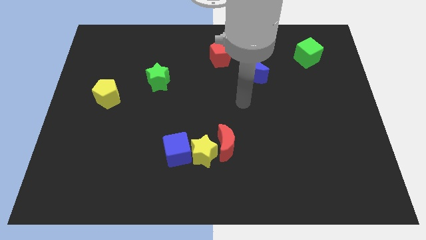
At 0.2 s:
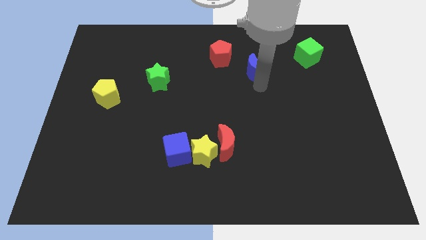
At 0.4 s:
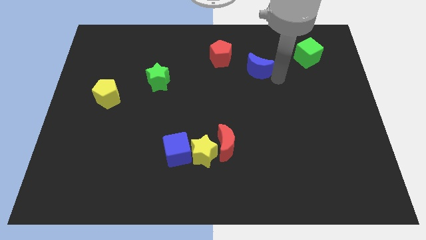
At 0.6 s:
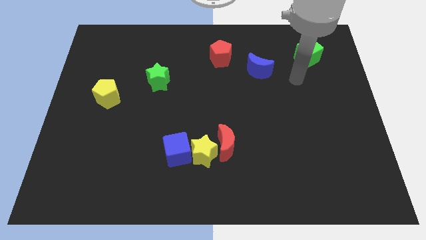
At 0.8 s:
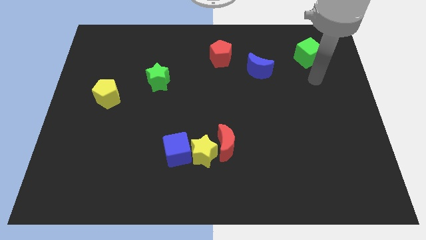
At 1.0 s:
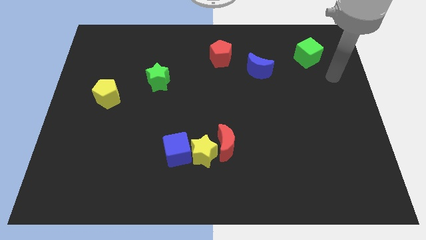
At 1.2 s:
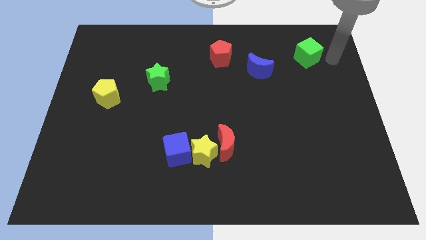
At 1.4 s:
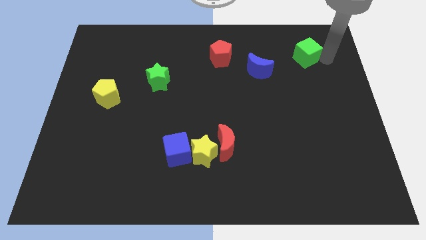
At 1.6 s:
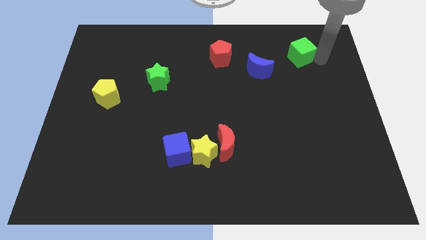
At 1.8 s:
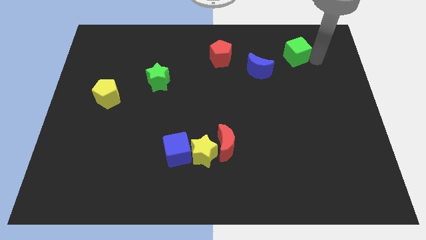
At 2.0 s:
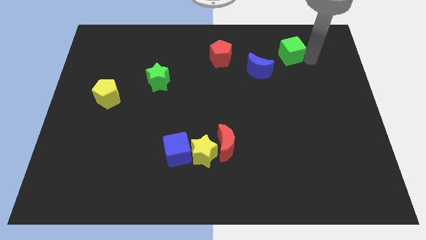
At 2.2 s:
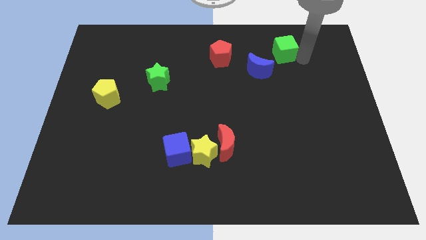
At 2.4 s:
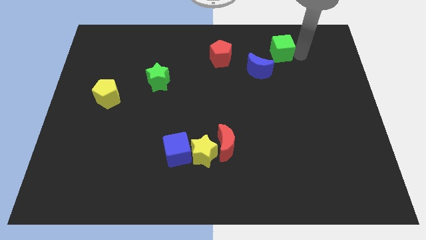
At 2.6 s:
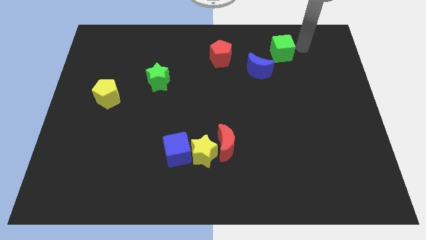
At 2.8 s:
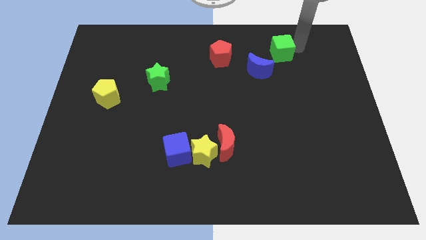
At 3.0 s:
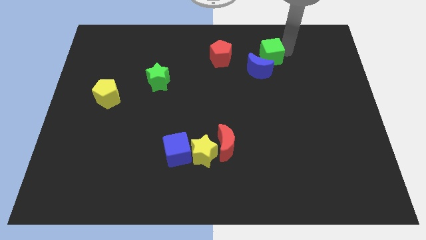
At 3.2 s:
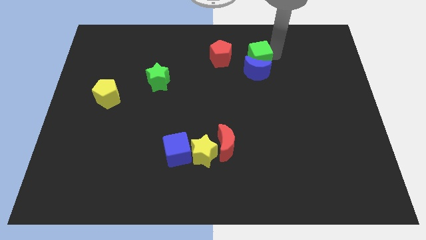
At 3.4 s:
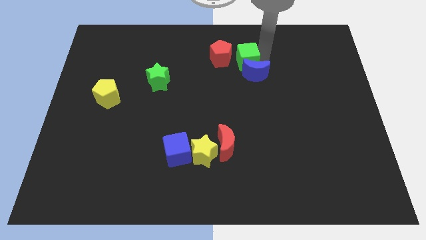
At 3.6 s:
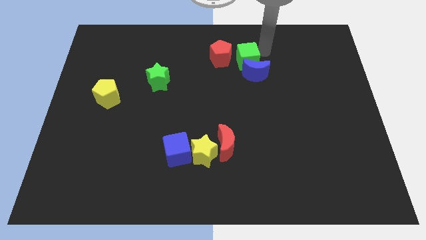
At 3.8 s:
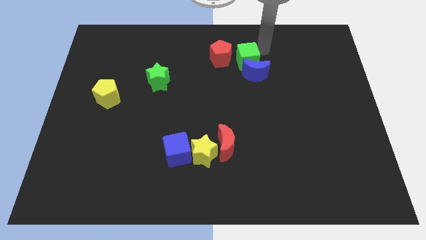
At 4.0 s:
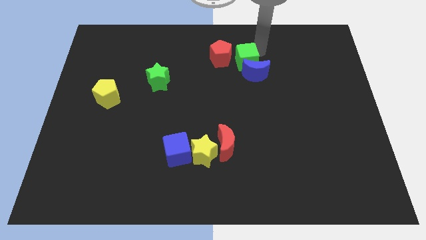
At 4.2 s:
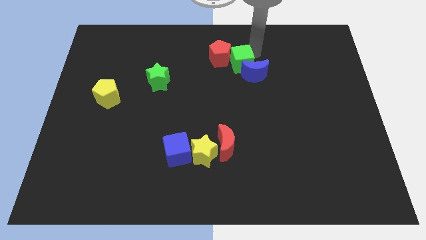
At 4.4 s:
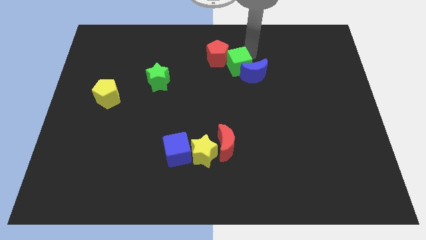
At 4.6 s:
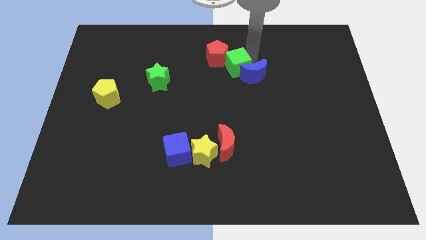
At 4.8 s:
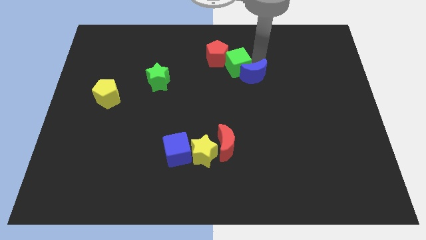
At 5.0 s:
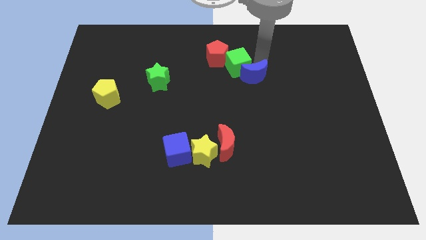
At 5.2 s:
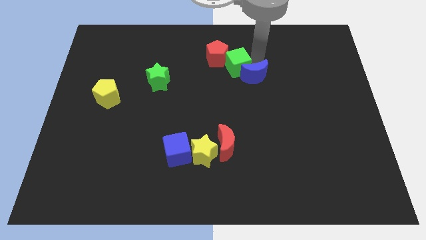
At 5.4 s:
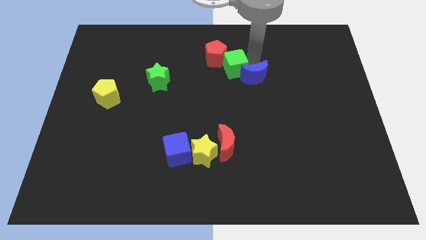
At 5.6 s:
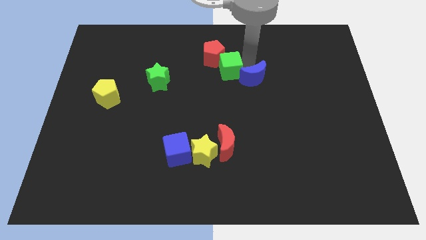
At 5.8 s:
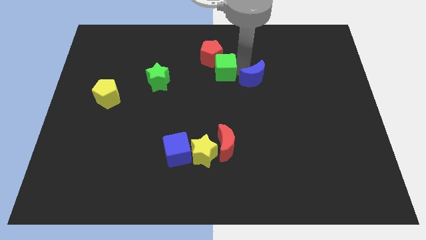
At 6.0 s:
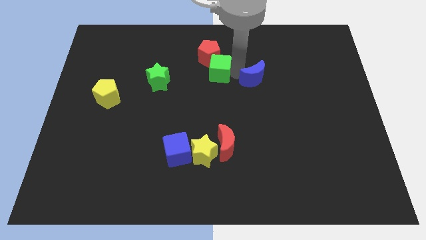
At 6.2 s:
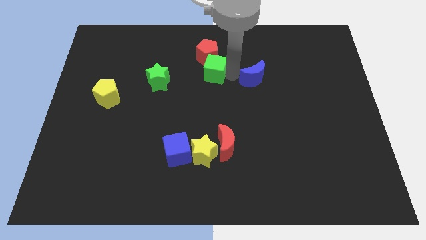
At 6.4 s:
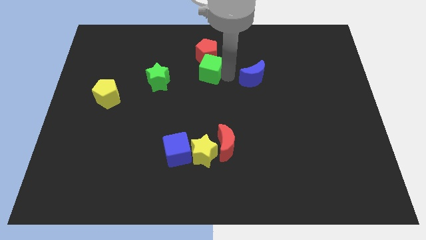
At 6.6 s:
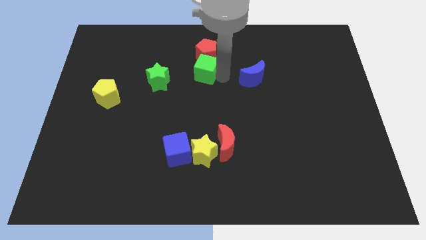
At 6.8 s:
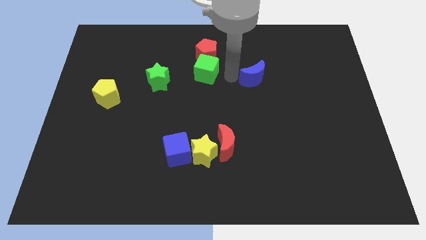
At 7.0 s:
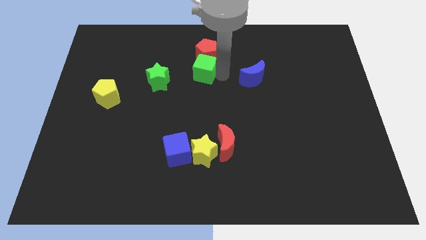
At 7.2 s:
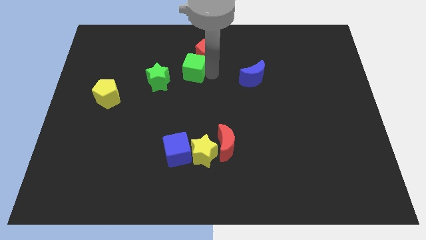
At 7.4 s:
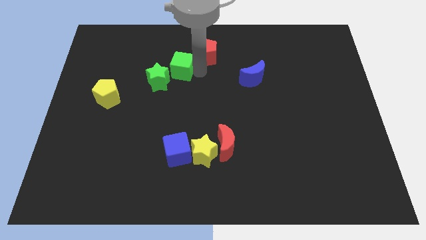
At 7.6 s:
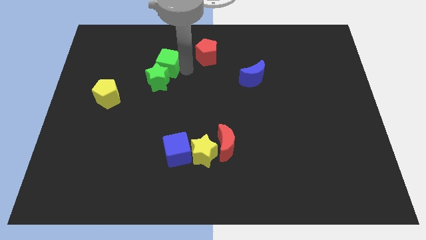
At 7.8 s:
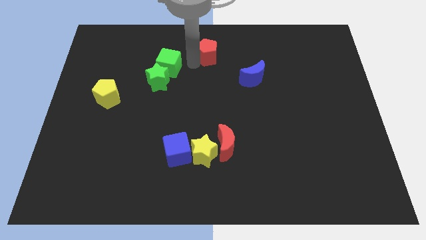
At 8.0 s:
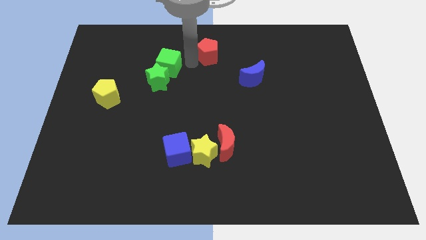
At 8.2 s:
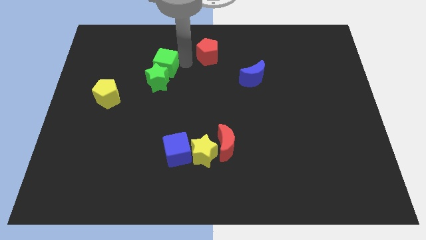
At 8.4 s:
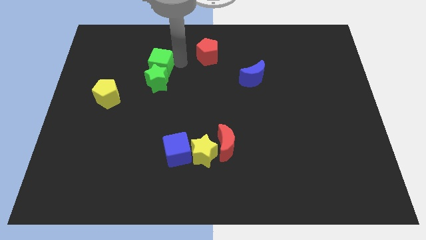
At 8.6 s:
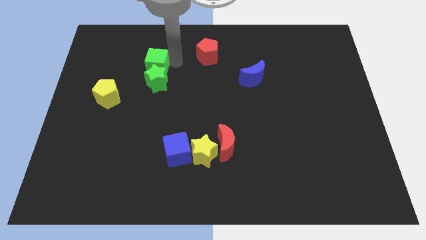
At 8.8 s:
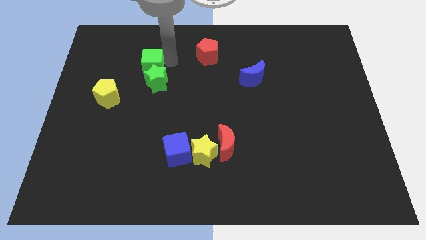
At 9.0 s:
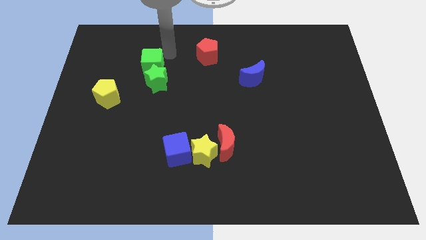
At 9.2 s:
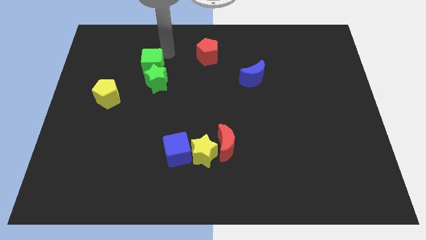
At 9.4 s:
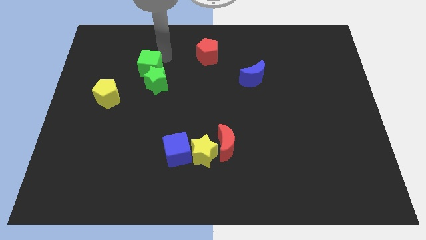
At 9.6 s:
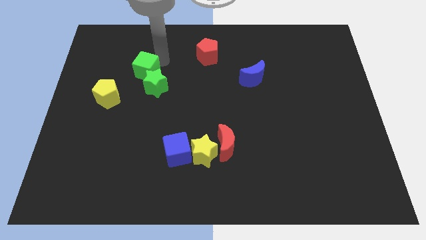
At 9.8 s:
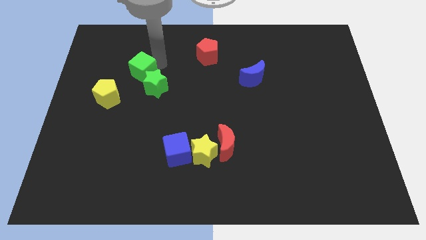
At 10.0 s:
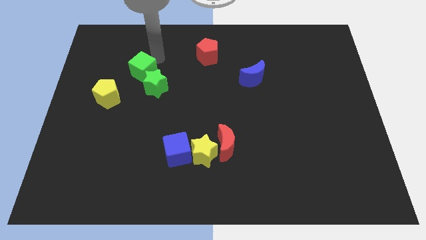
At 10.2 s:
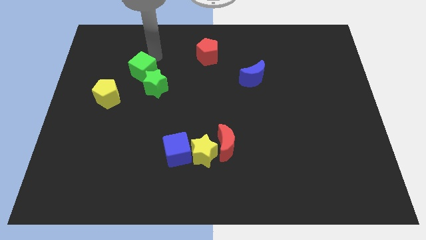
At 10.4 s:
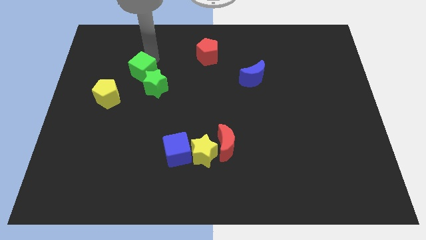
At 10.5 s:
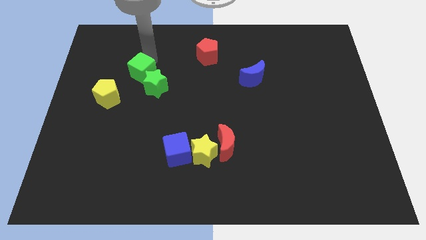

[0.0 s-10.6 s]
push the green cube just left of the green star

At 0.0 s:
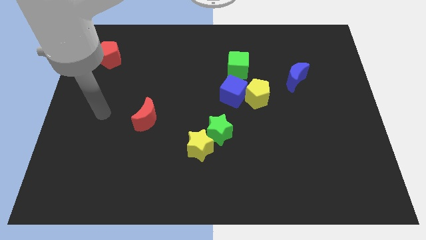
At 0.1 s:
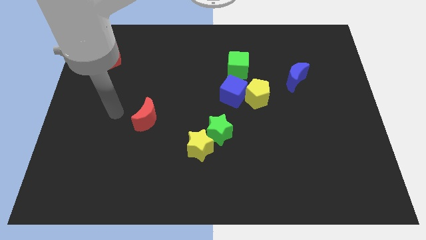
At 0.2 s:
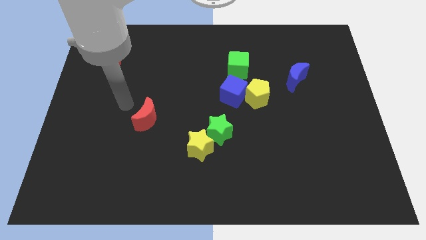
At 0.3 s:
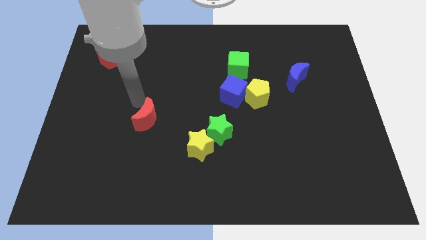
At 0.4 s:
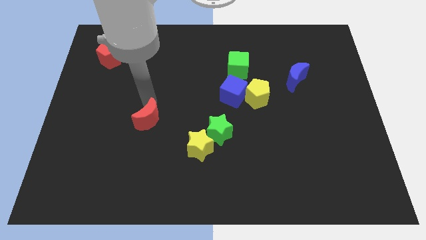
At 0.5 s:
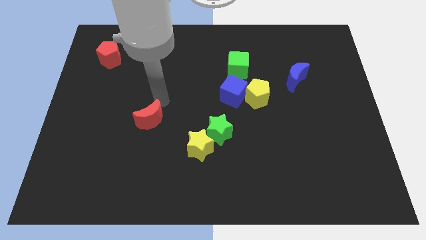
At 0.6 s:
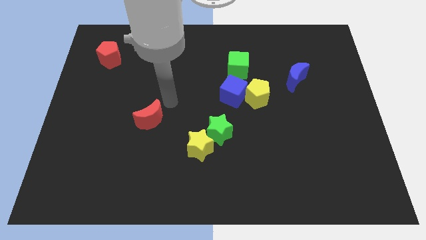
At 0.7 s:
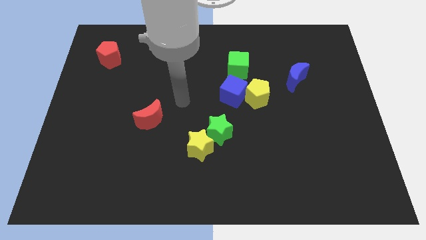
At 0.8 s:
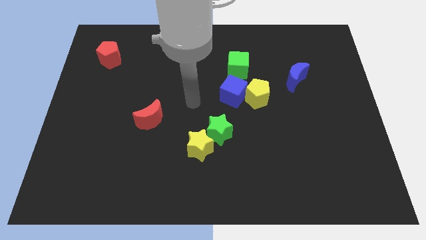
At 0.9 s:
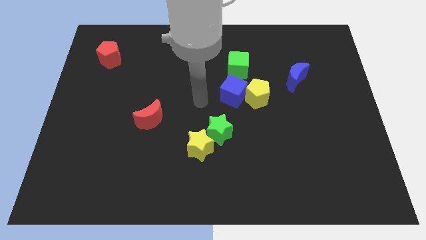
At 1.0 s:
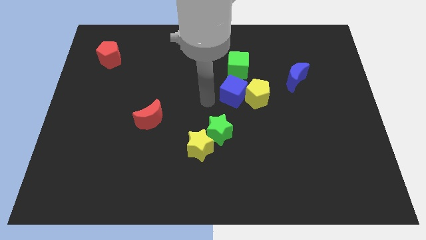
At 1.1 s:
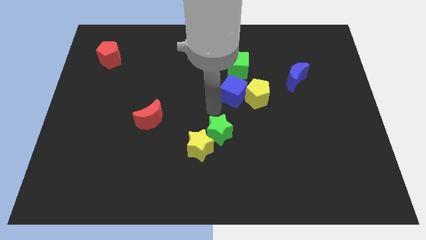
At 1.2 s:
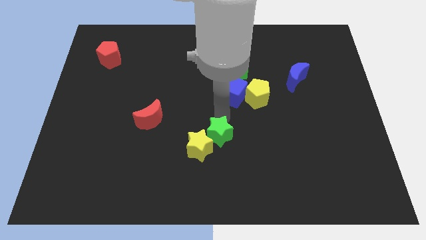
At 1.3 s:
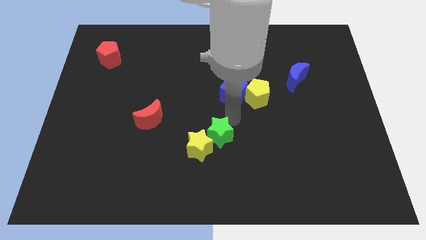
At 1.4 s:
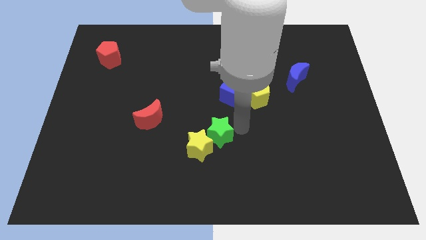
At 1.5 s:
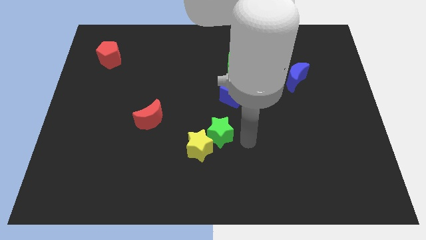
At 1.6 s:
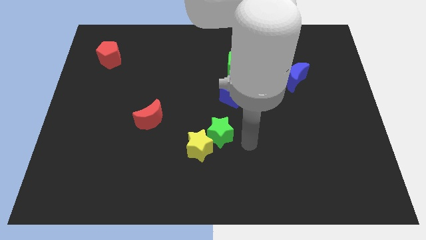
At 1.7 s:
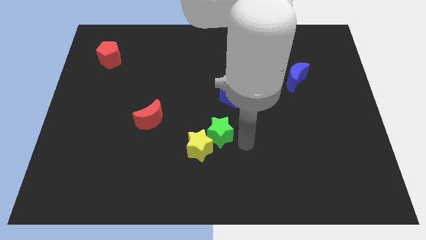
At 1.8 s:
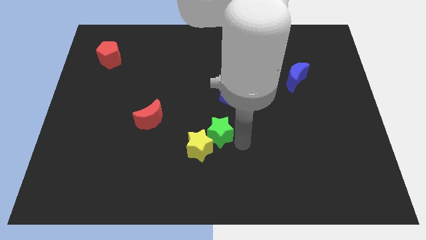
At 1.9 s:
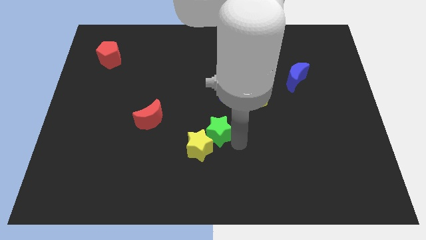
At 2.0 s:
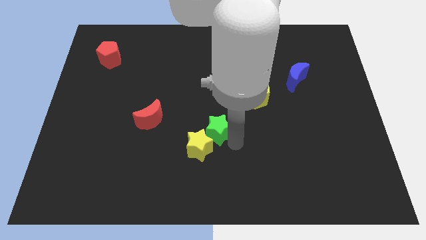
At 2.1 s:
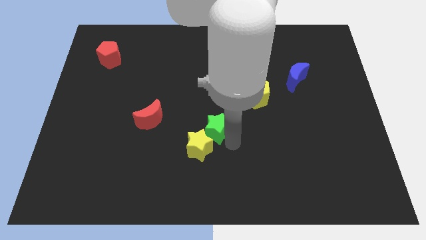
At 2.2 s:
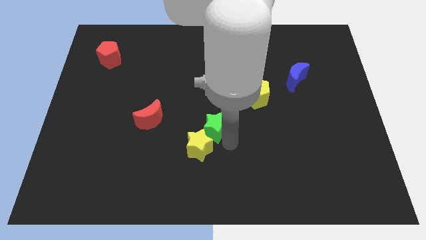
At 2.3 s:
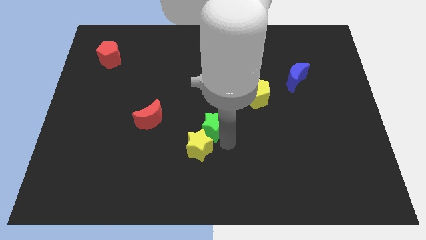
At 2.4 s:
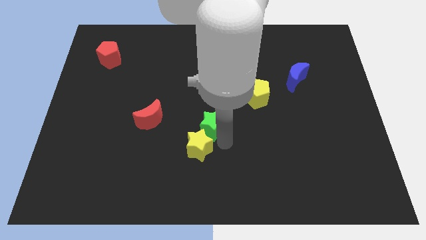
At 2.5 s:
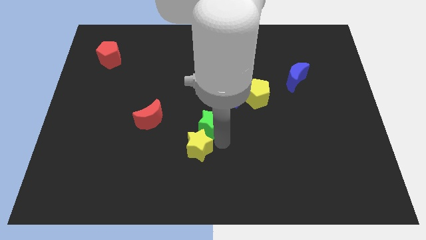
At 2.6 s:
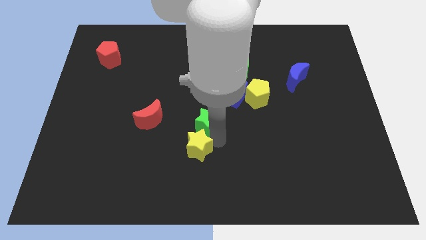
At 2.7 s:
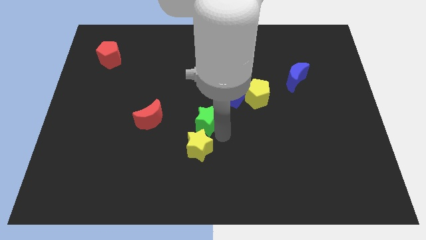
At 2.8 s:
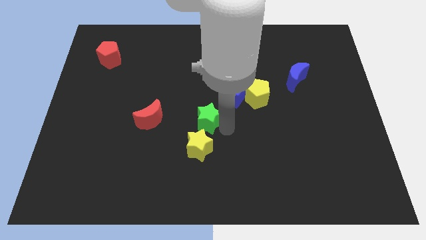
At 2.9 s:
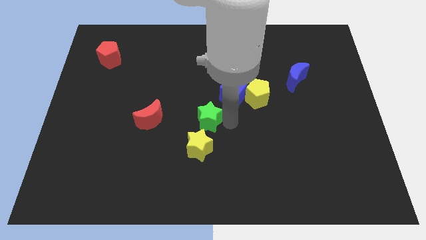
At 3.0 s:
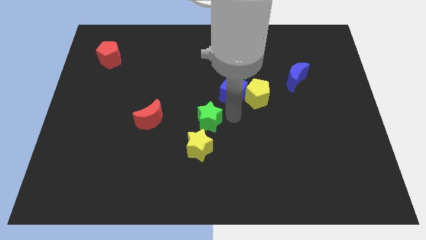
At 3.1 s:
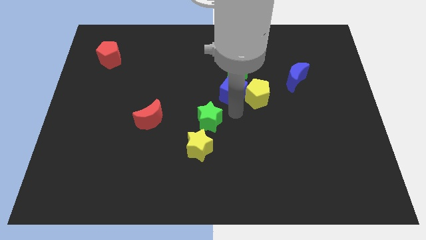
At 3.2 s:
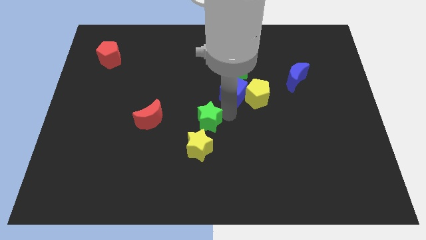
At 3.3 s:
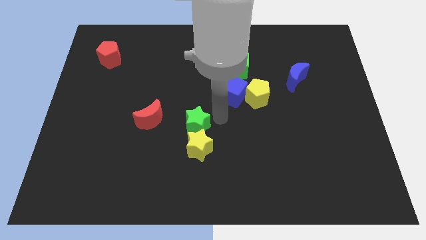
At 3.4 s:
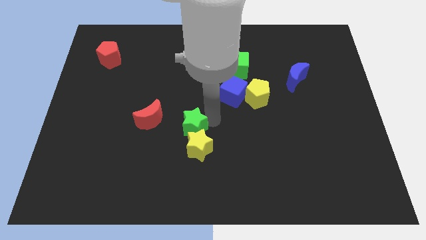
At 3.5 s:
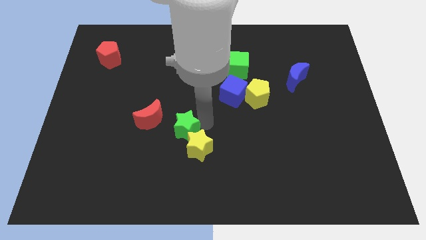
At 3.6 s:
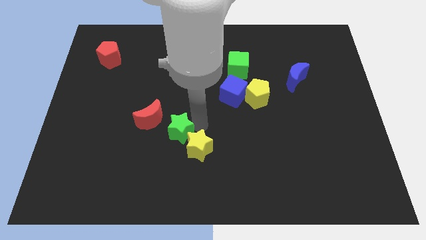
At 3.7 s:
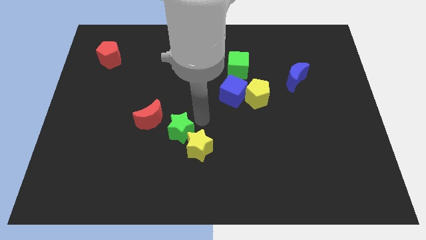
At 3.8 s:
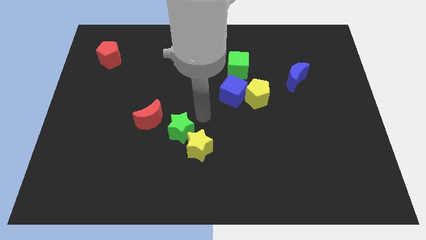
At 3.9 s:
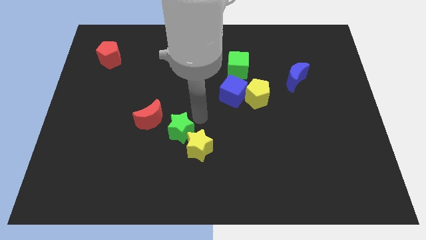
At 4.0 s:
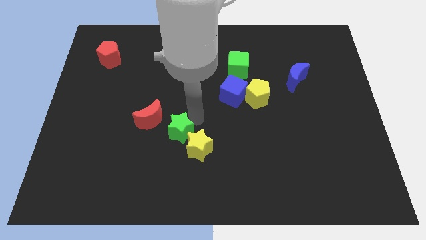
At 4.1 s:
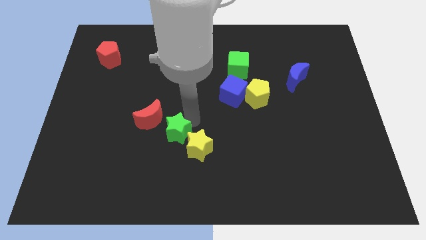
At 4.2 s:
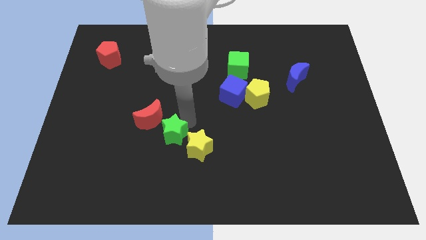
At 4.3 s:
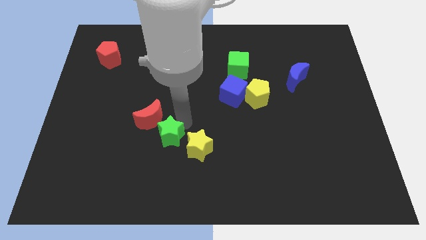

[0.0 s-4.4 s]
put the green star to the bottom of the red moon
